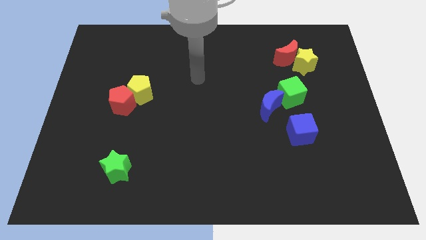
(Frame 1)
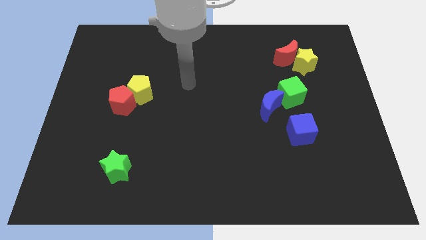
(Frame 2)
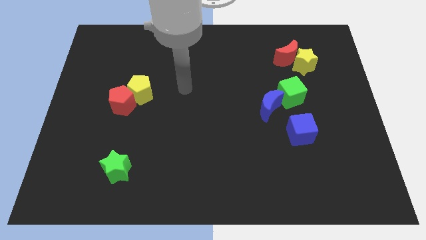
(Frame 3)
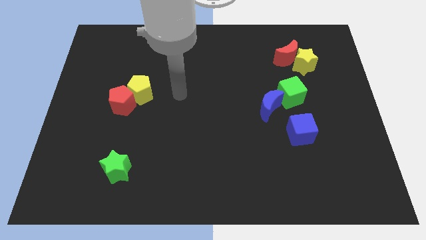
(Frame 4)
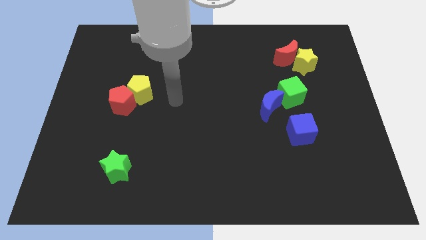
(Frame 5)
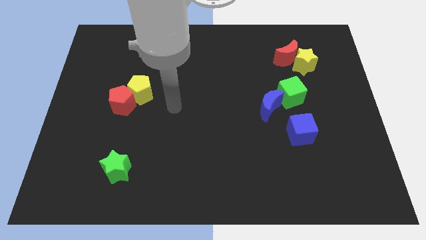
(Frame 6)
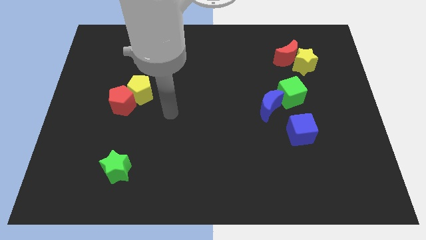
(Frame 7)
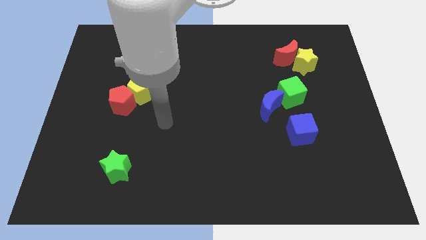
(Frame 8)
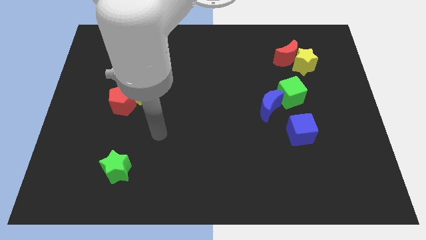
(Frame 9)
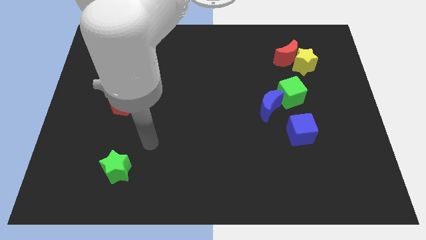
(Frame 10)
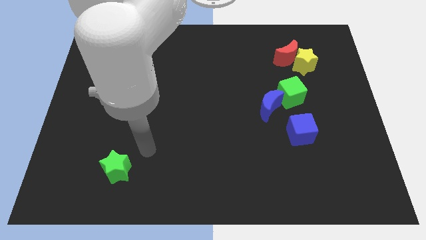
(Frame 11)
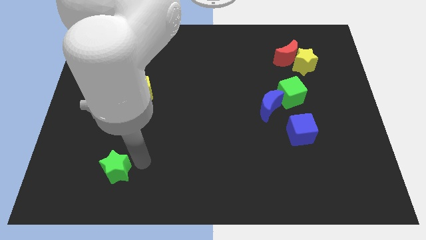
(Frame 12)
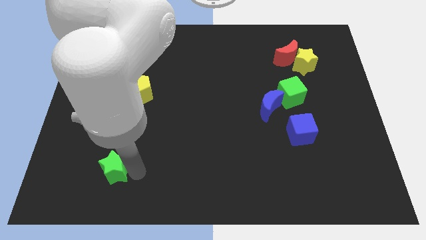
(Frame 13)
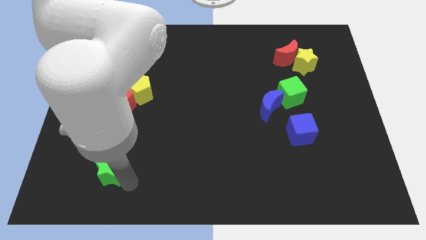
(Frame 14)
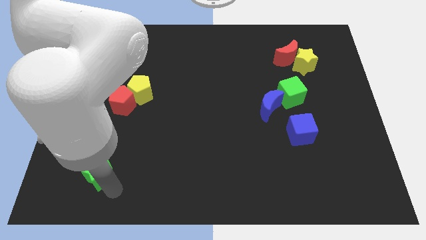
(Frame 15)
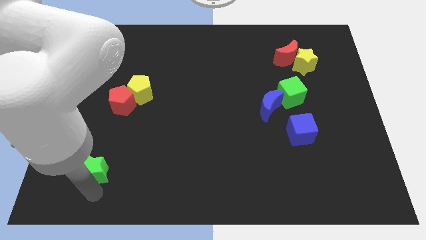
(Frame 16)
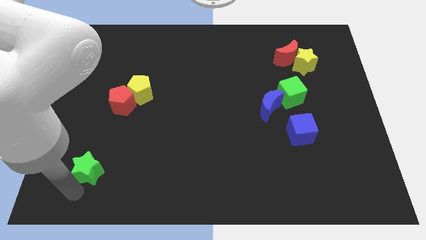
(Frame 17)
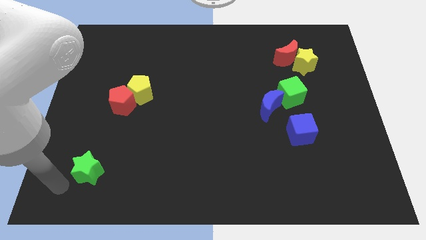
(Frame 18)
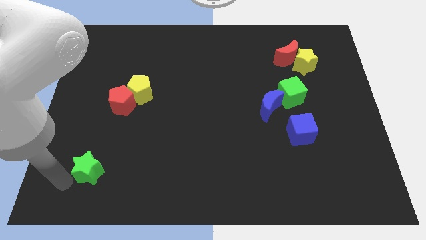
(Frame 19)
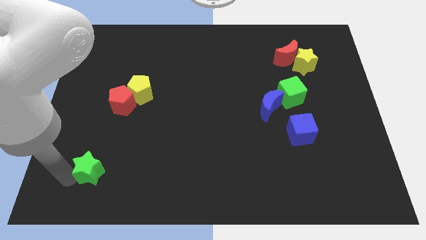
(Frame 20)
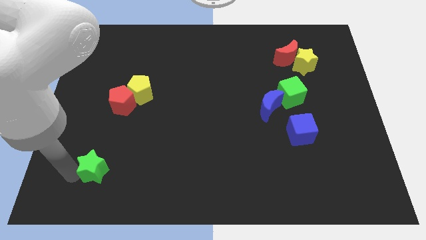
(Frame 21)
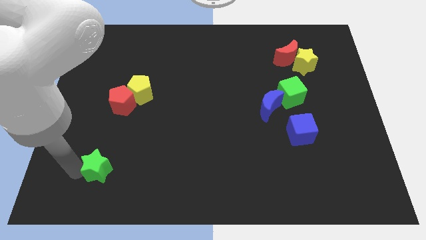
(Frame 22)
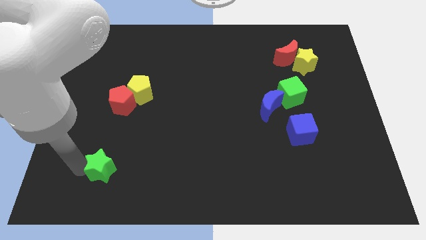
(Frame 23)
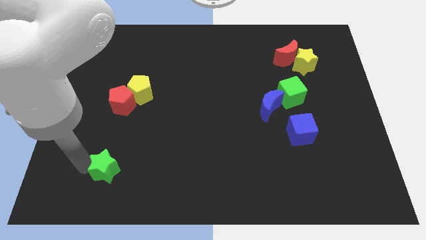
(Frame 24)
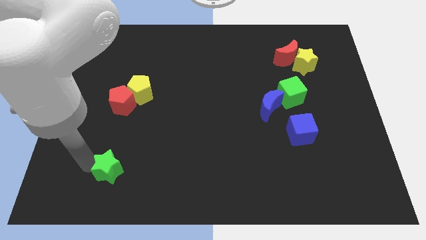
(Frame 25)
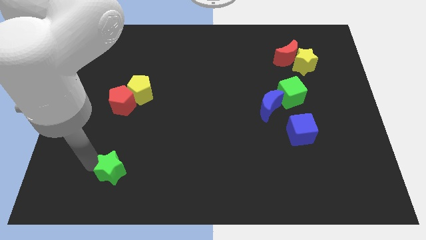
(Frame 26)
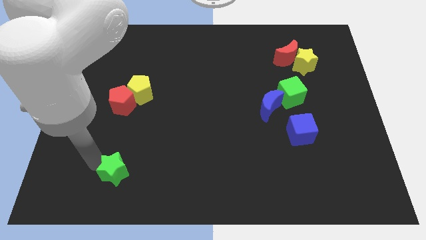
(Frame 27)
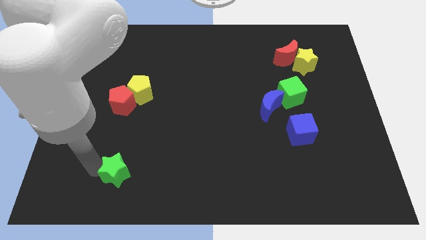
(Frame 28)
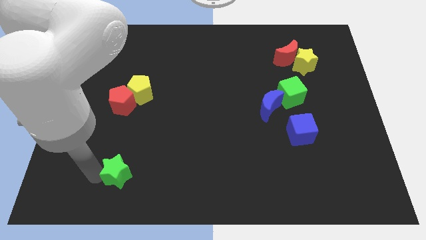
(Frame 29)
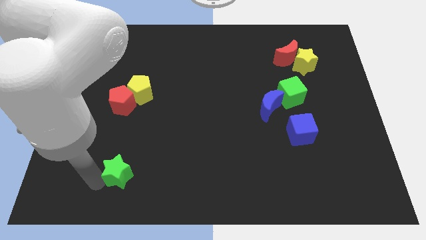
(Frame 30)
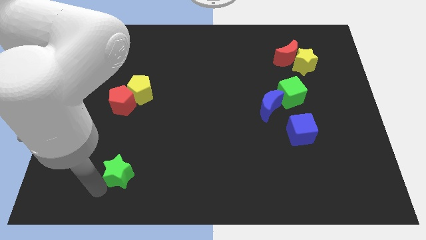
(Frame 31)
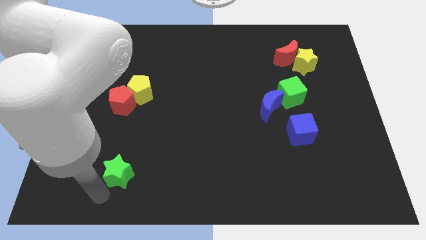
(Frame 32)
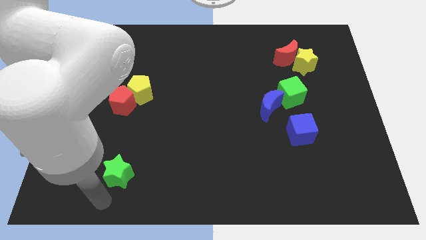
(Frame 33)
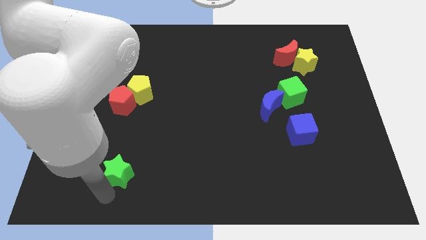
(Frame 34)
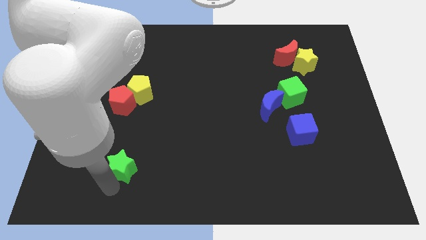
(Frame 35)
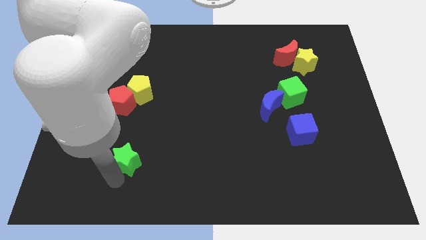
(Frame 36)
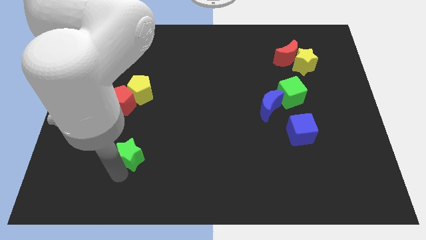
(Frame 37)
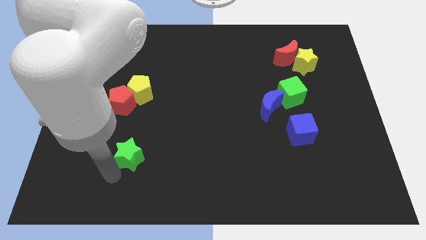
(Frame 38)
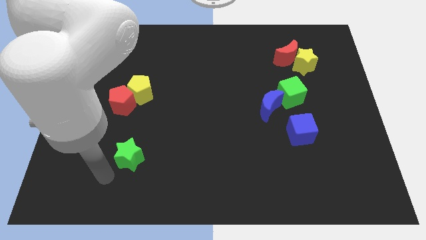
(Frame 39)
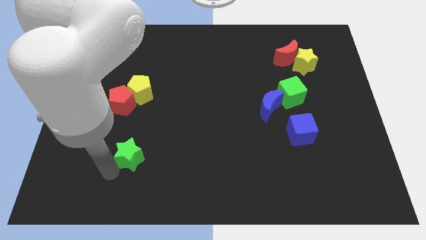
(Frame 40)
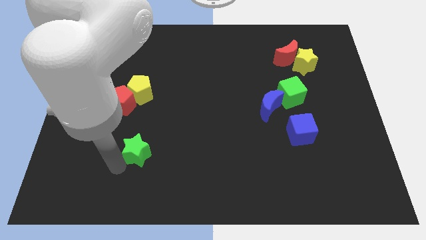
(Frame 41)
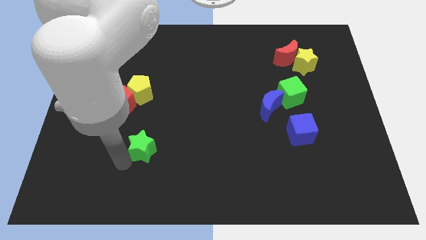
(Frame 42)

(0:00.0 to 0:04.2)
push the green star a bit up and to the right

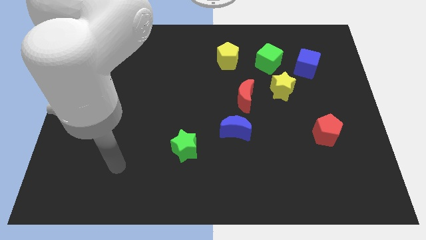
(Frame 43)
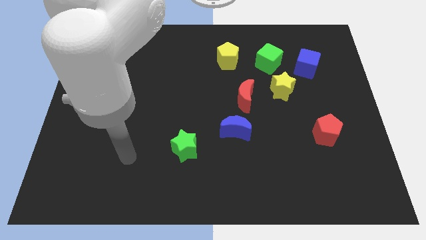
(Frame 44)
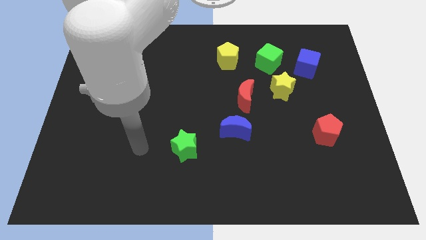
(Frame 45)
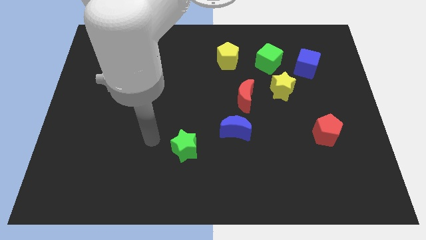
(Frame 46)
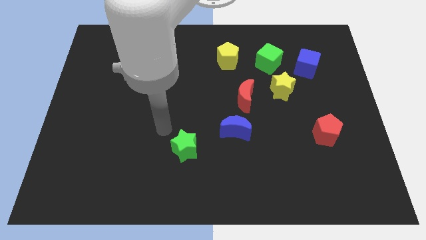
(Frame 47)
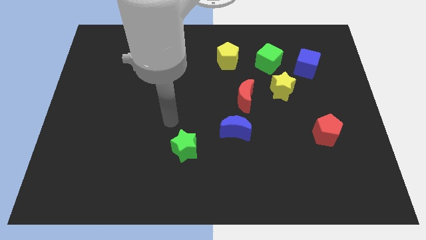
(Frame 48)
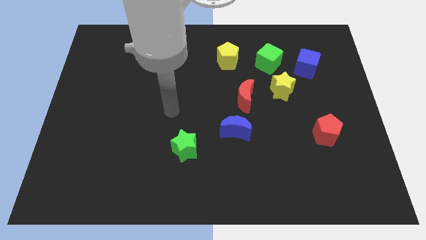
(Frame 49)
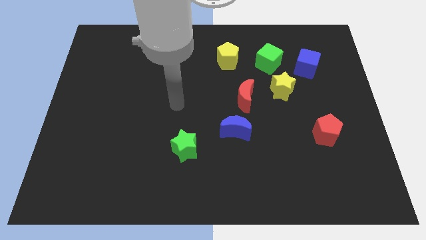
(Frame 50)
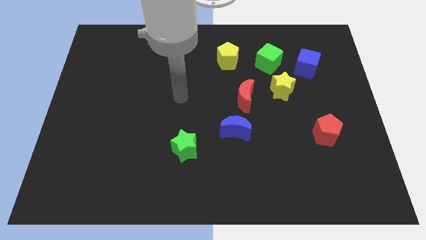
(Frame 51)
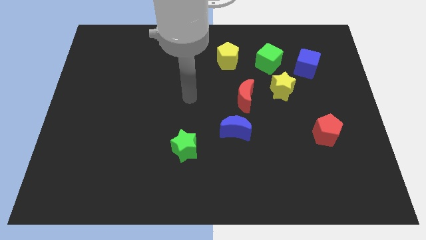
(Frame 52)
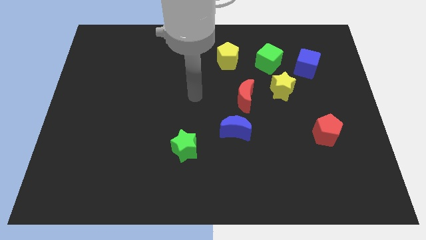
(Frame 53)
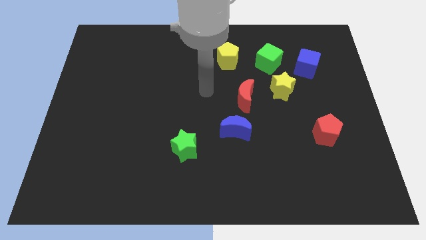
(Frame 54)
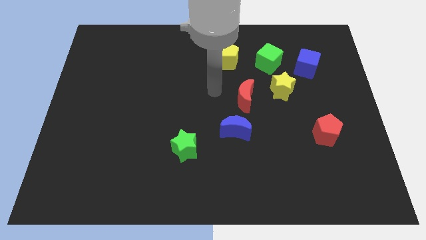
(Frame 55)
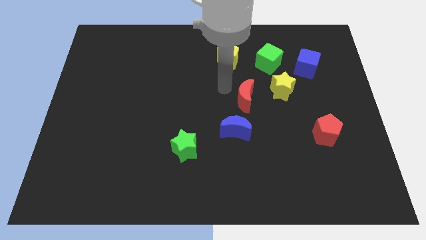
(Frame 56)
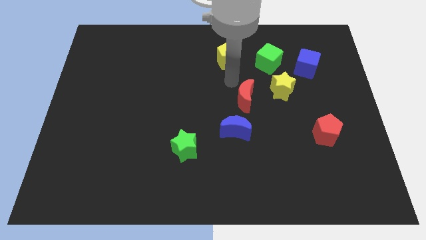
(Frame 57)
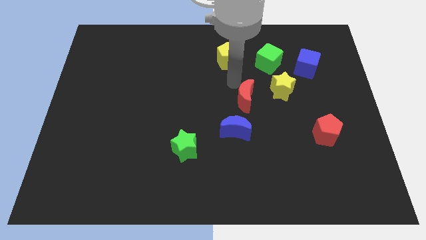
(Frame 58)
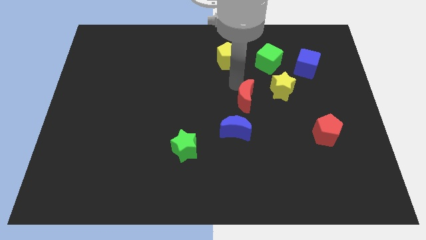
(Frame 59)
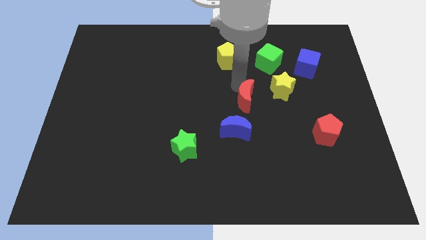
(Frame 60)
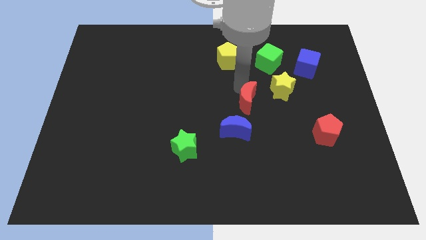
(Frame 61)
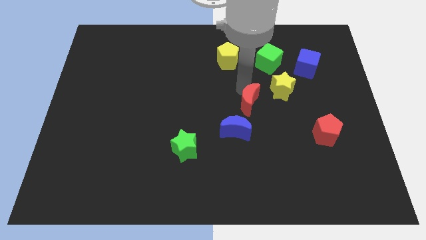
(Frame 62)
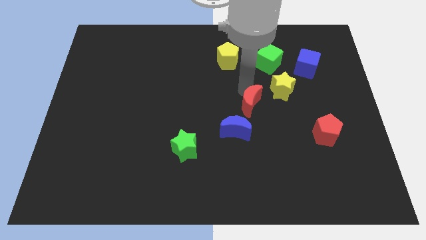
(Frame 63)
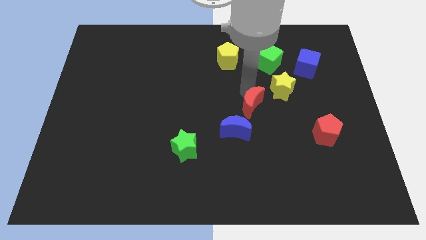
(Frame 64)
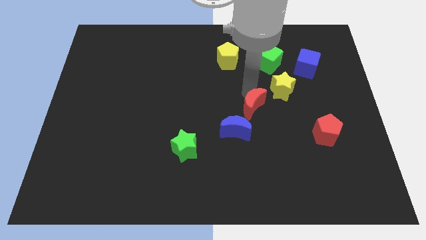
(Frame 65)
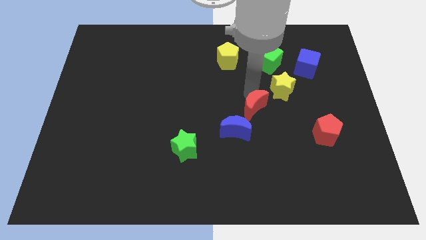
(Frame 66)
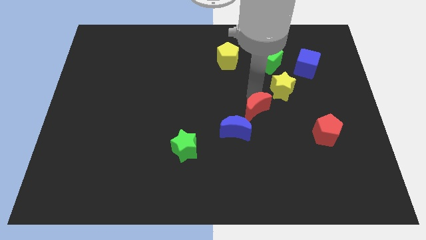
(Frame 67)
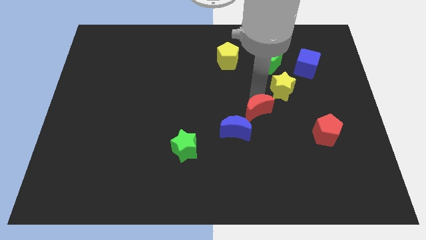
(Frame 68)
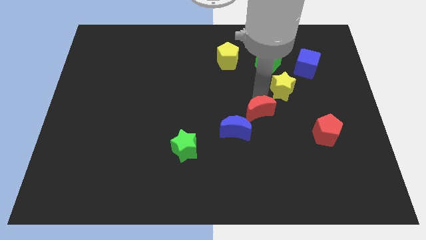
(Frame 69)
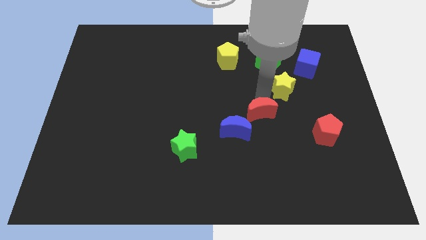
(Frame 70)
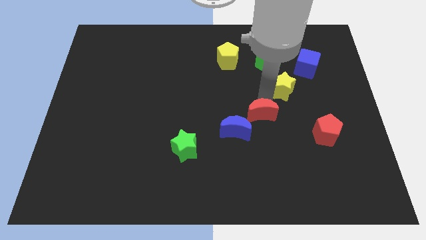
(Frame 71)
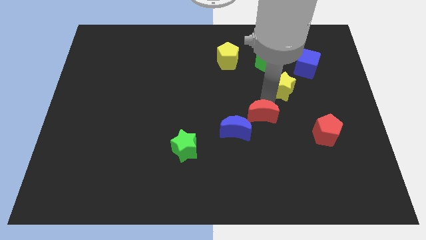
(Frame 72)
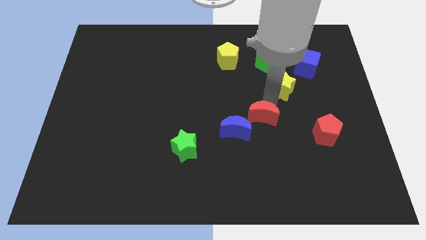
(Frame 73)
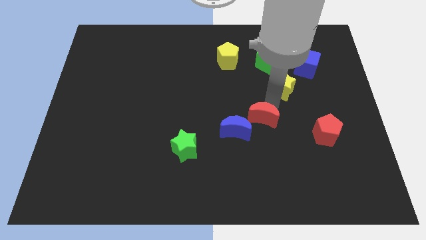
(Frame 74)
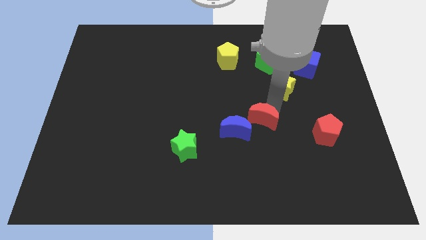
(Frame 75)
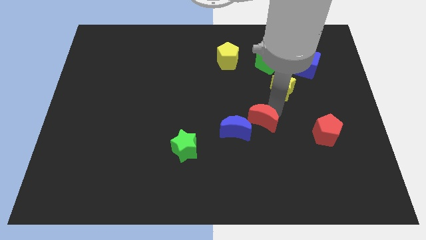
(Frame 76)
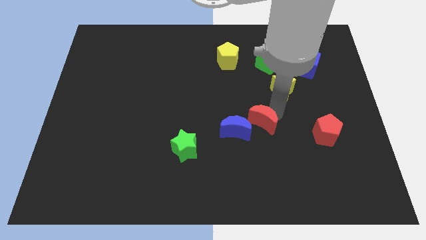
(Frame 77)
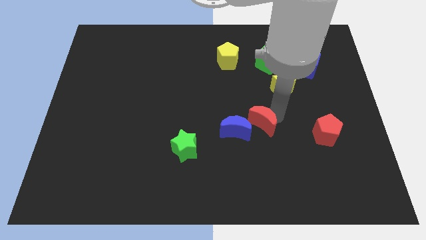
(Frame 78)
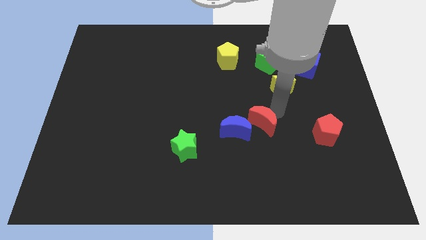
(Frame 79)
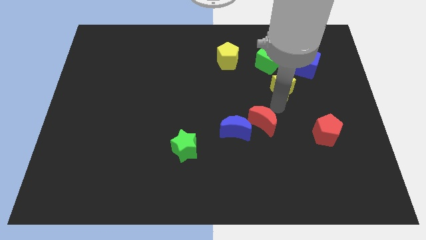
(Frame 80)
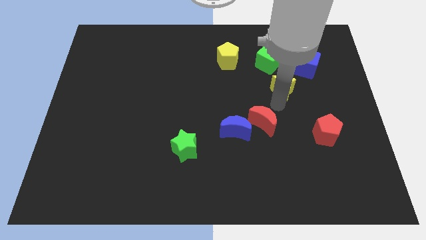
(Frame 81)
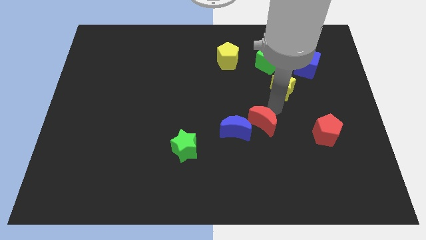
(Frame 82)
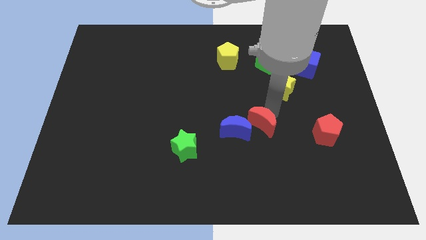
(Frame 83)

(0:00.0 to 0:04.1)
slide the red moon slightly down

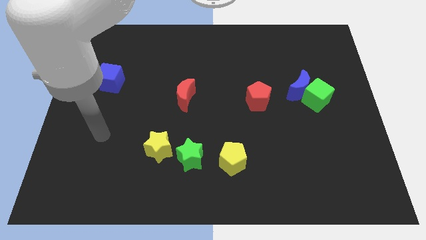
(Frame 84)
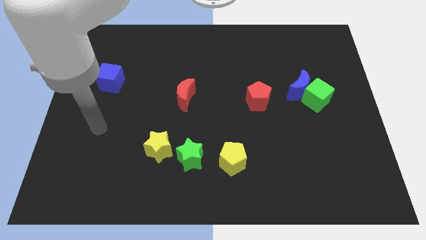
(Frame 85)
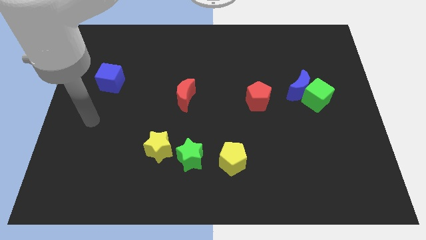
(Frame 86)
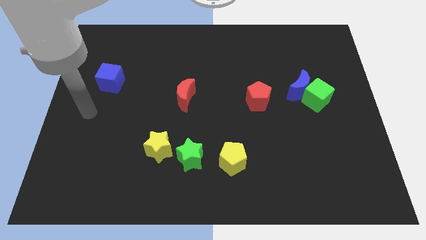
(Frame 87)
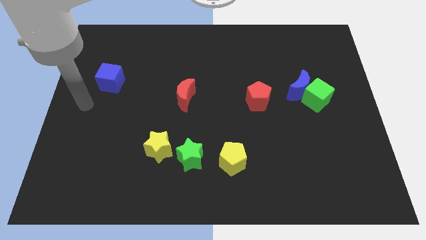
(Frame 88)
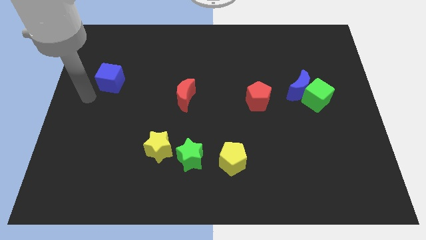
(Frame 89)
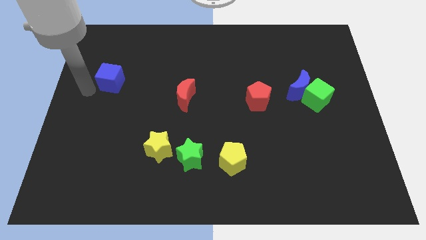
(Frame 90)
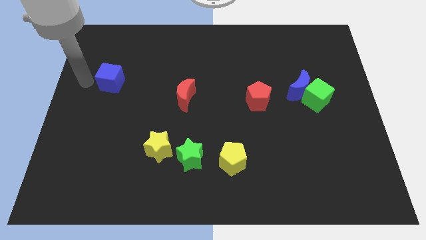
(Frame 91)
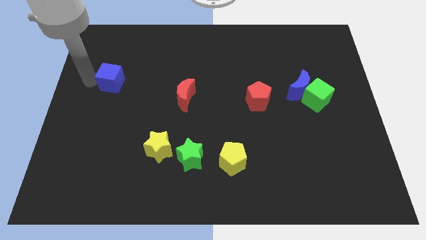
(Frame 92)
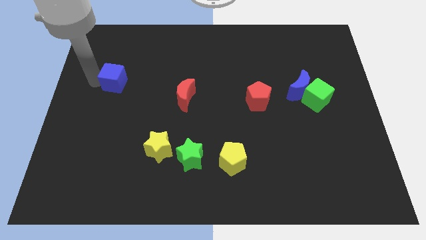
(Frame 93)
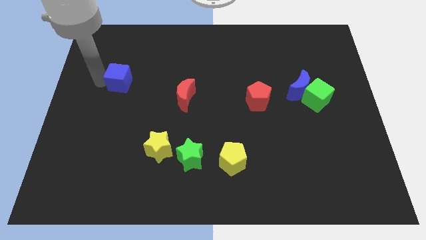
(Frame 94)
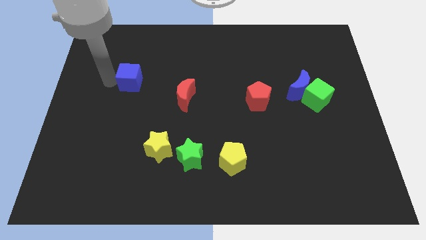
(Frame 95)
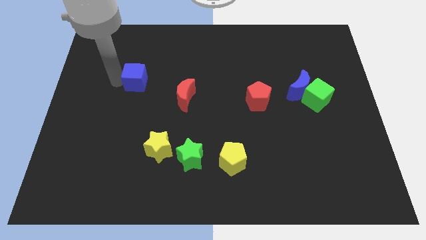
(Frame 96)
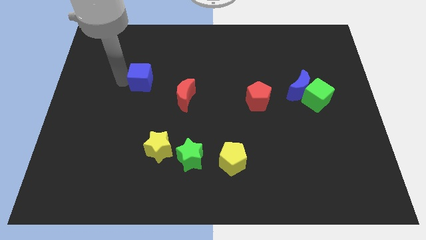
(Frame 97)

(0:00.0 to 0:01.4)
slightly move the blue cube right
